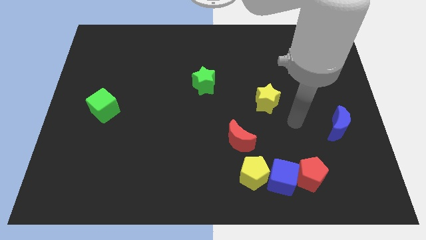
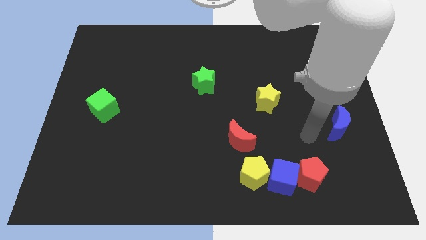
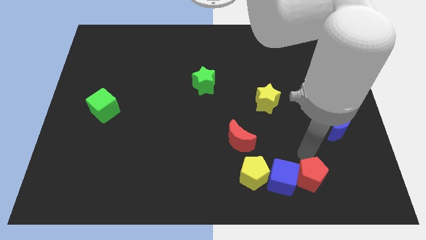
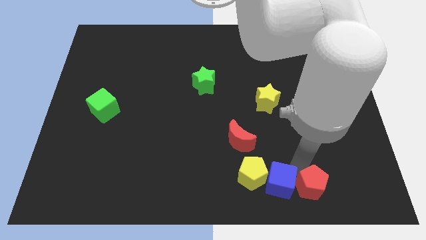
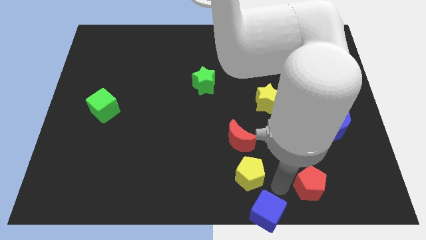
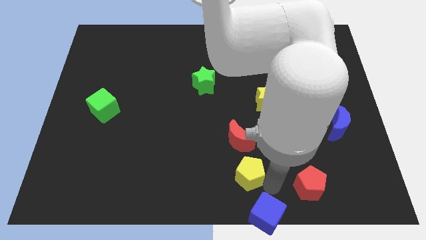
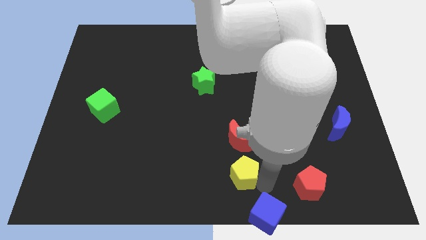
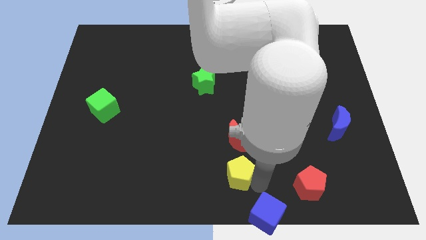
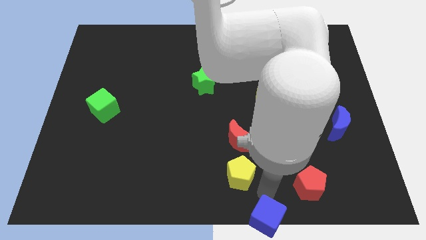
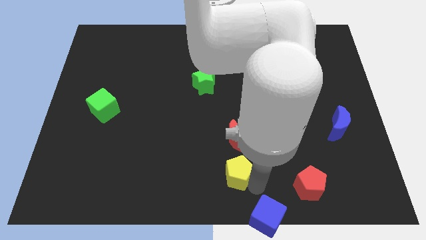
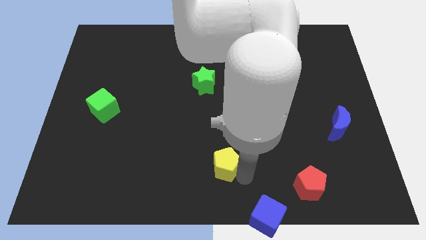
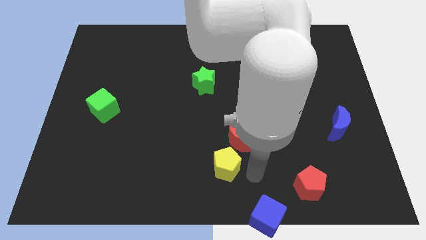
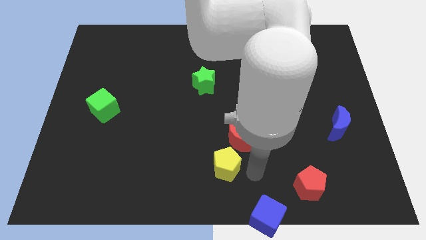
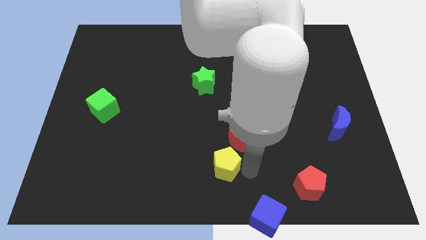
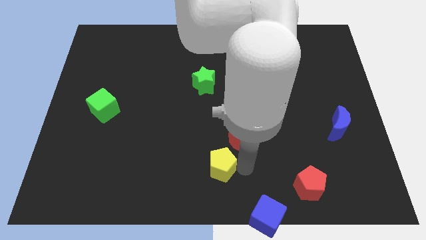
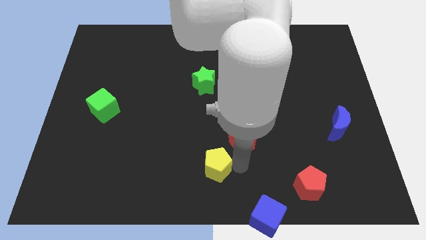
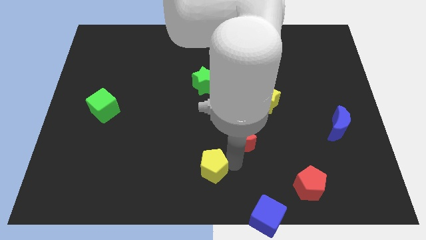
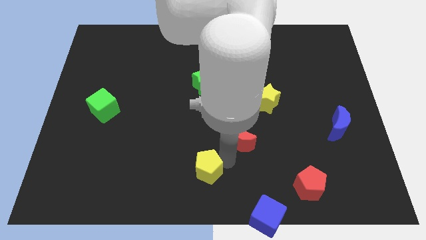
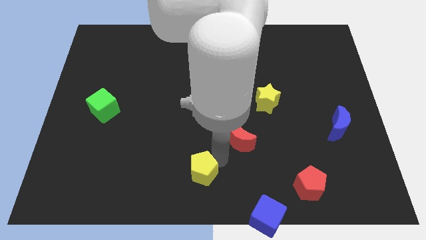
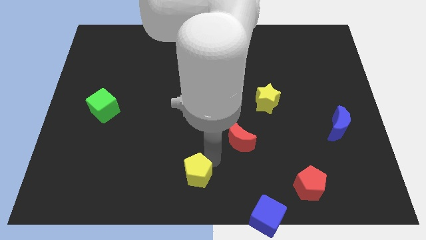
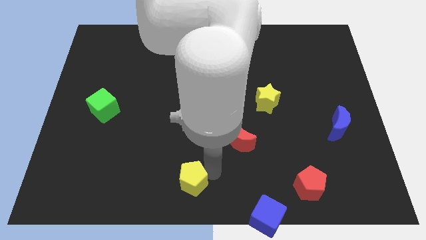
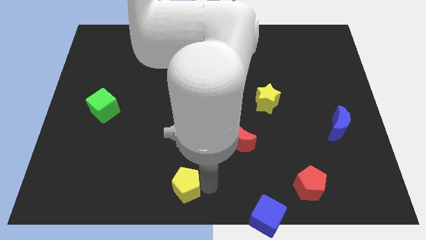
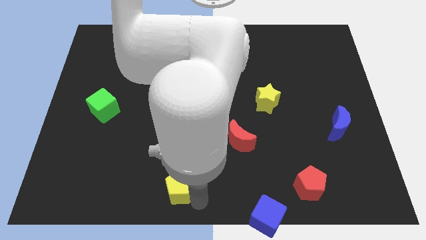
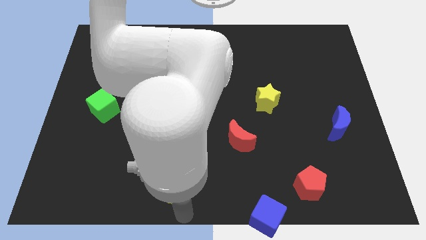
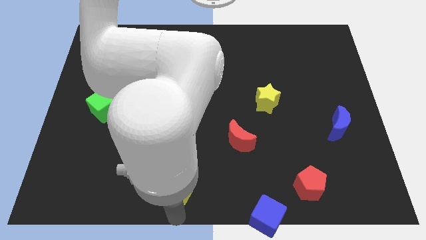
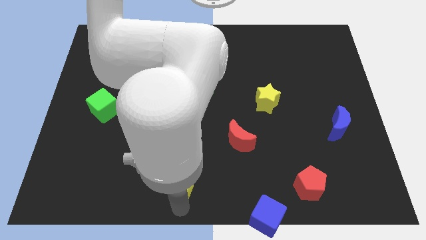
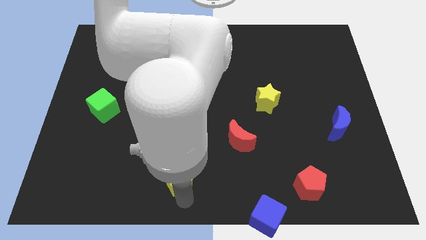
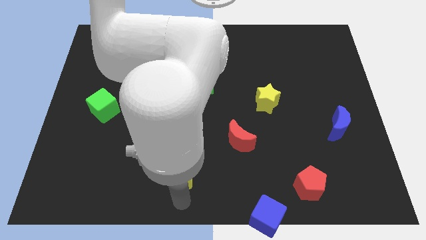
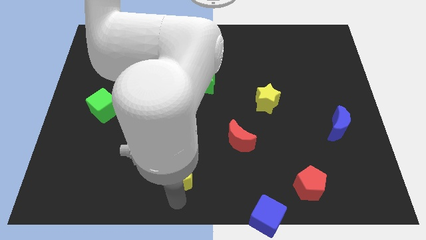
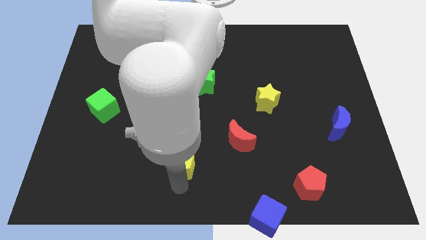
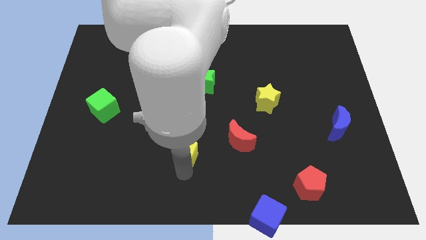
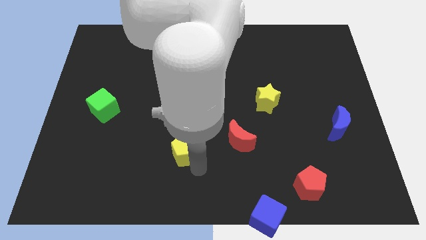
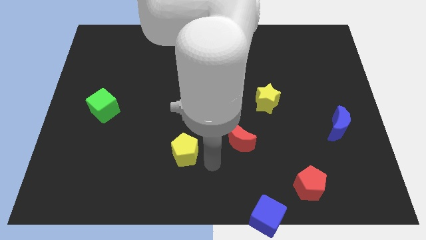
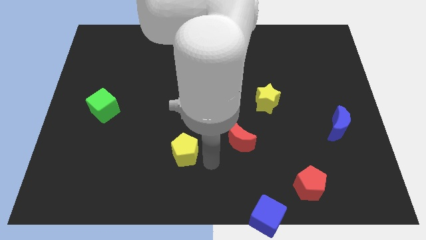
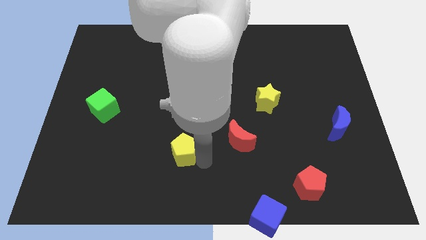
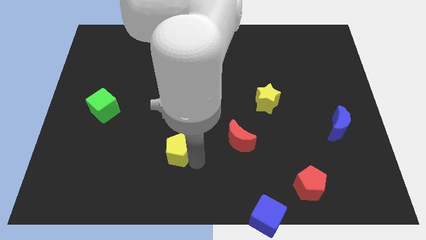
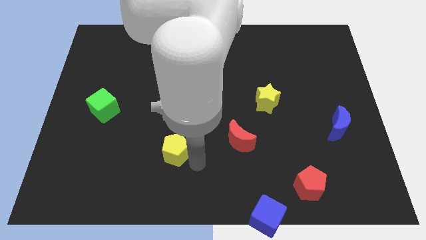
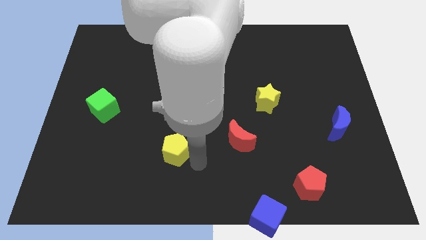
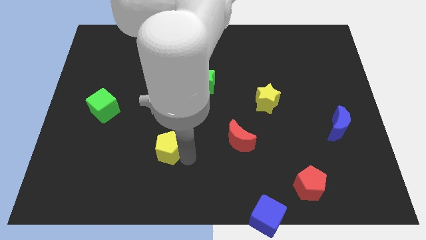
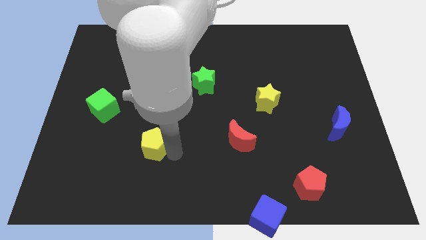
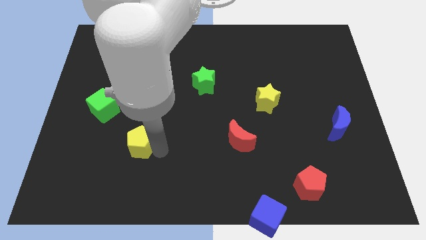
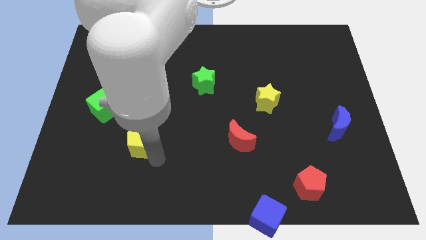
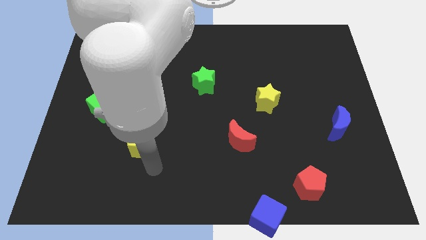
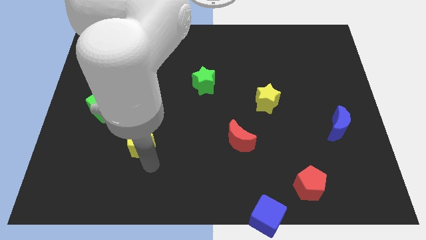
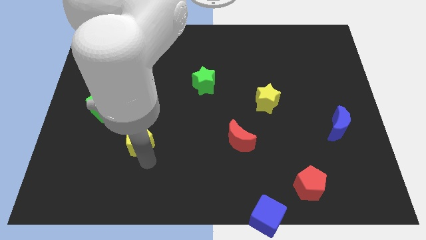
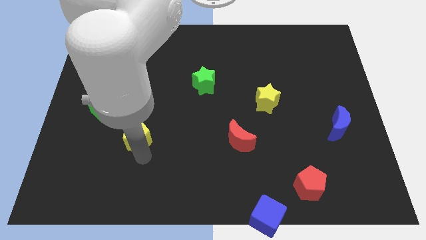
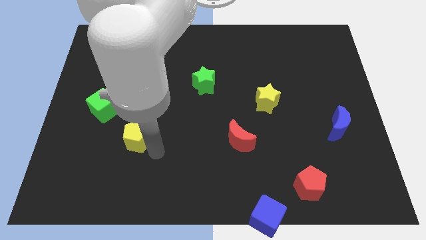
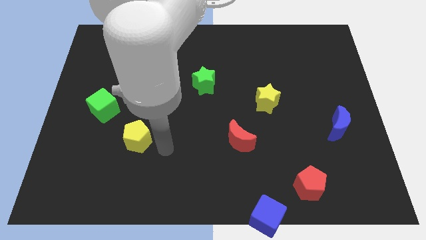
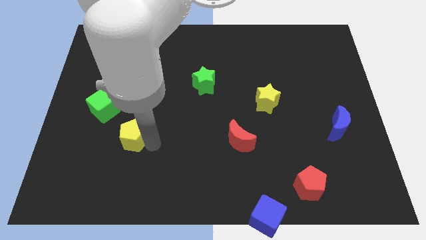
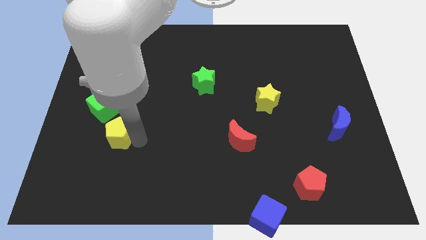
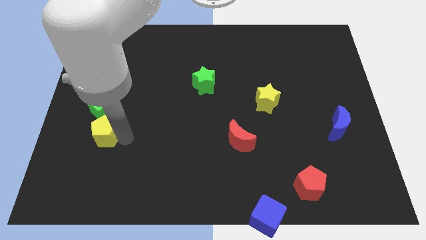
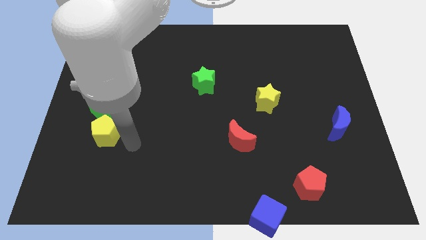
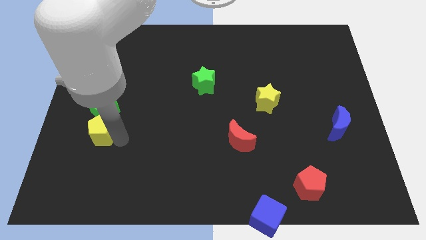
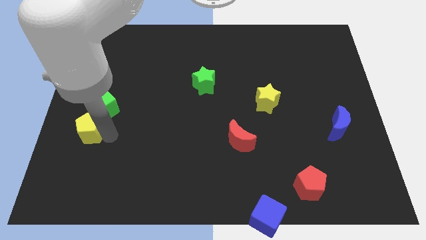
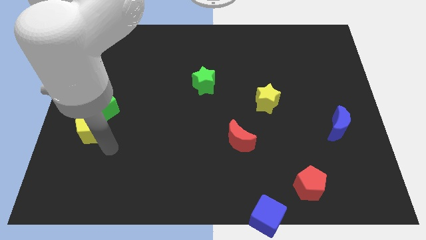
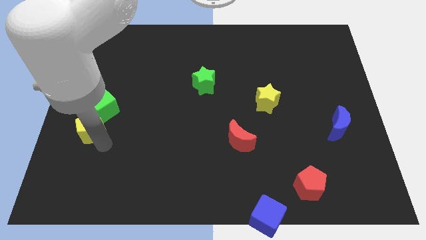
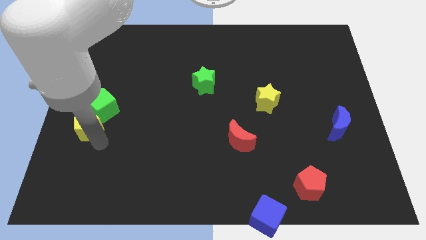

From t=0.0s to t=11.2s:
put the yellow pentagon to the center left
